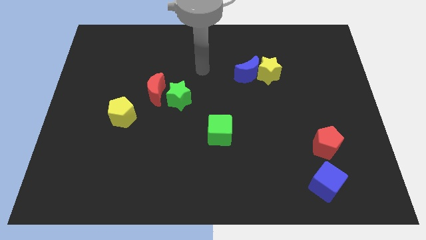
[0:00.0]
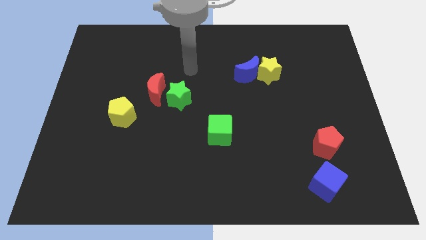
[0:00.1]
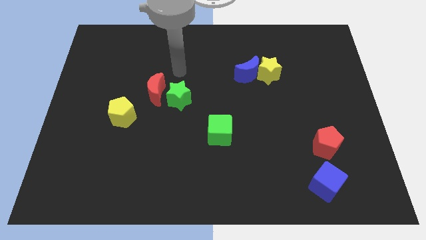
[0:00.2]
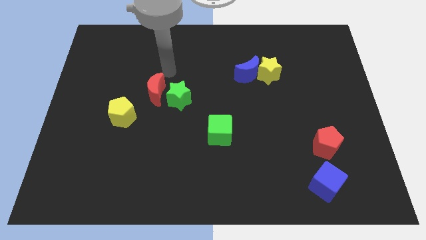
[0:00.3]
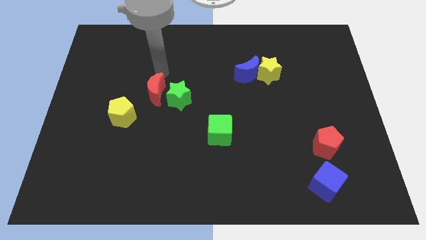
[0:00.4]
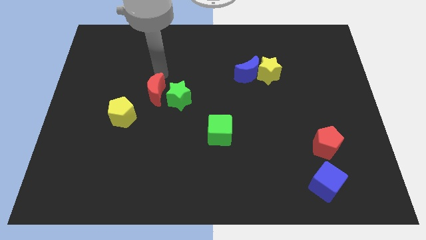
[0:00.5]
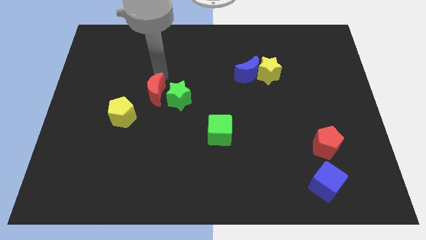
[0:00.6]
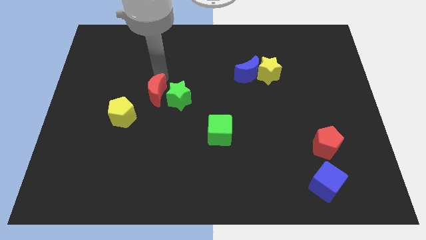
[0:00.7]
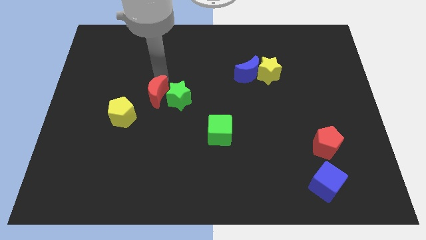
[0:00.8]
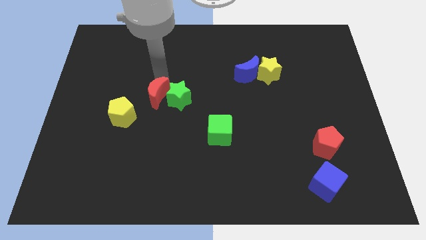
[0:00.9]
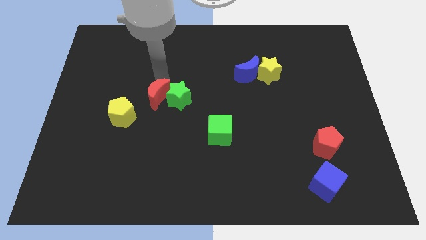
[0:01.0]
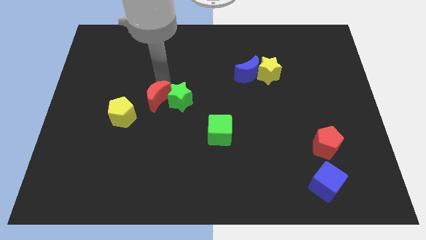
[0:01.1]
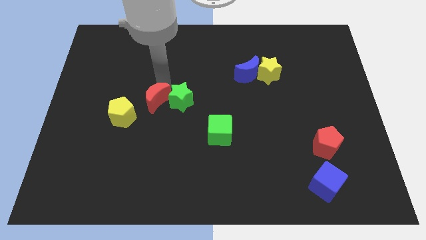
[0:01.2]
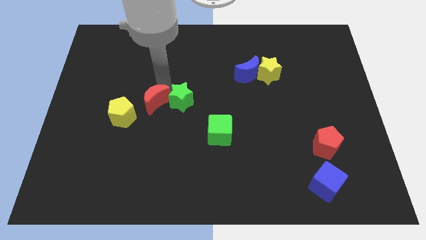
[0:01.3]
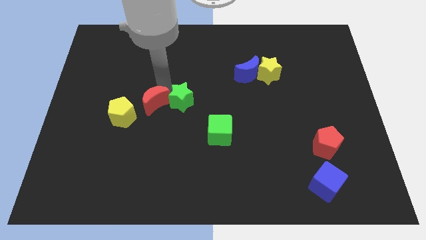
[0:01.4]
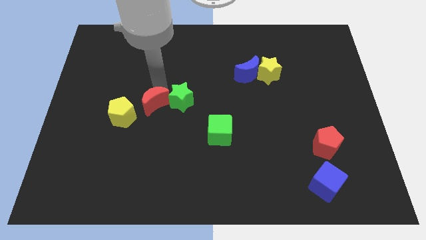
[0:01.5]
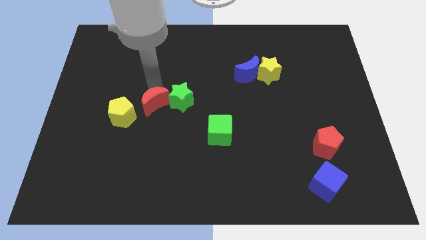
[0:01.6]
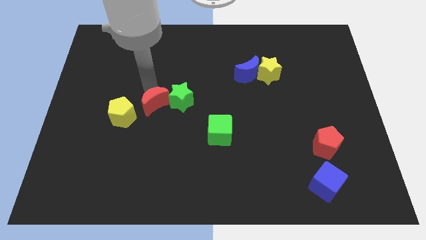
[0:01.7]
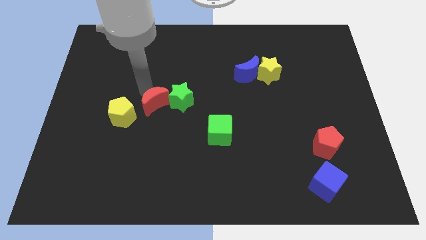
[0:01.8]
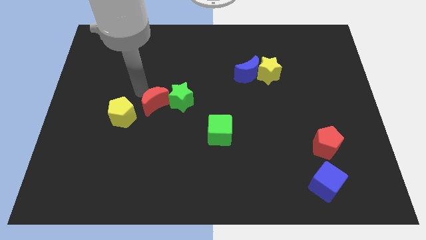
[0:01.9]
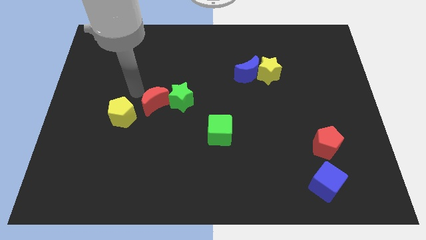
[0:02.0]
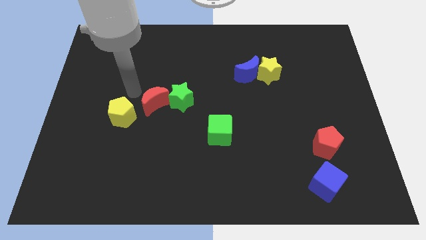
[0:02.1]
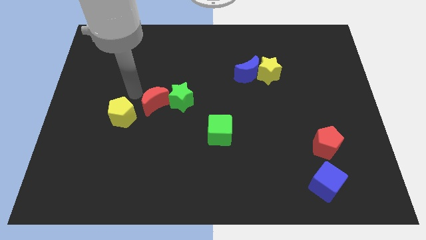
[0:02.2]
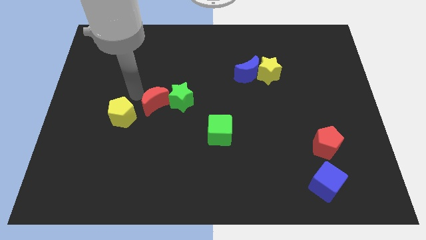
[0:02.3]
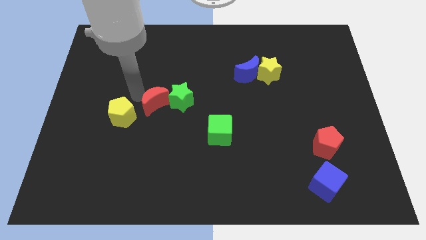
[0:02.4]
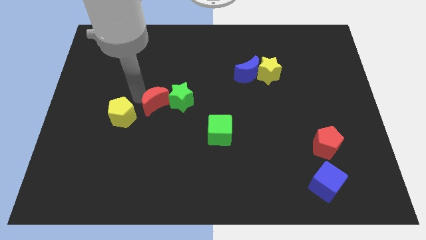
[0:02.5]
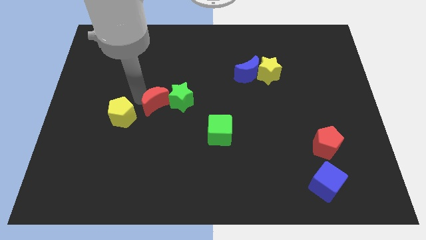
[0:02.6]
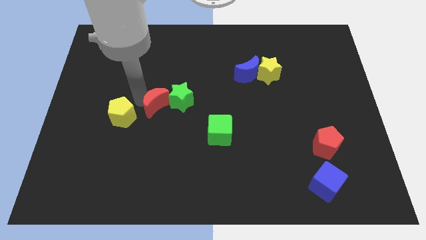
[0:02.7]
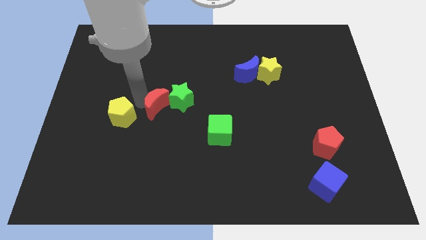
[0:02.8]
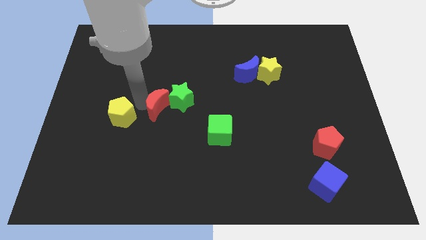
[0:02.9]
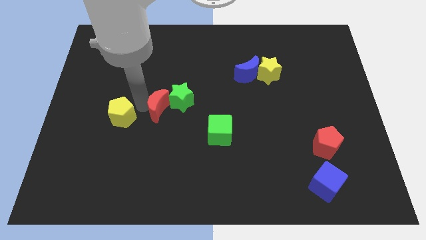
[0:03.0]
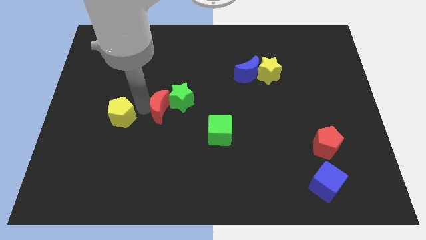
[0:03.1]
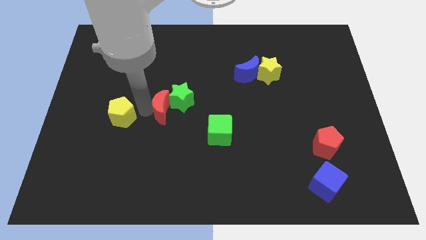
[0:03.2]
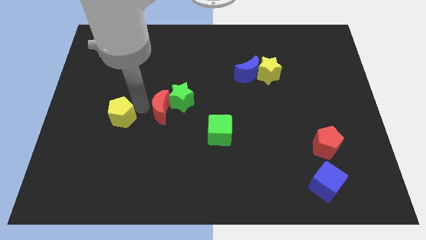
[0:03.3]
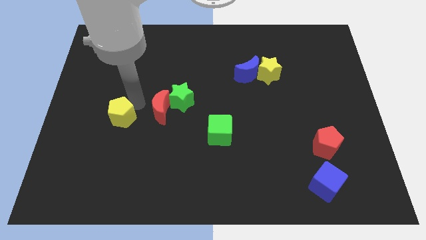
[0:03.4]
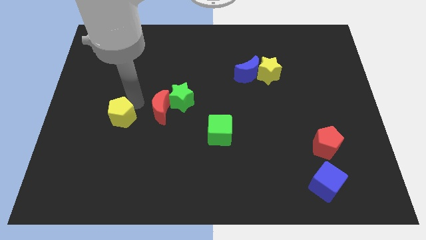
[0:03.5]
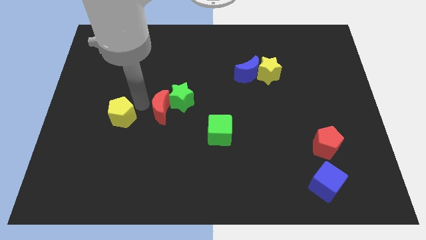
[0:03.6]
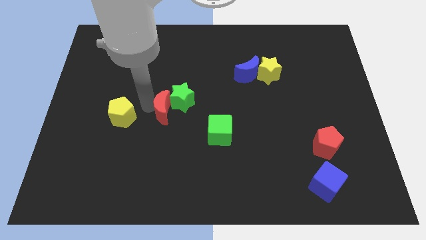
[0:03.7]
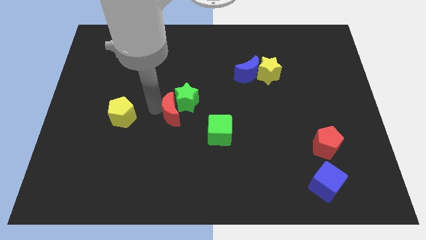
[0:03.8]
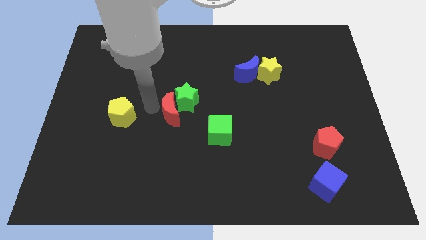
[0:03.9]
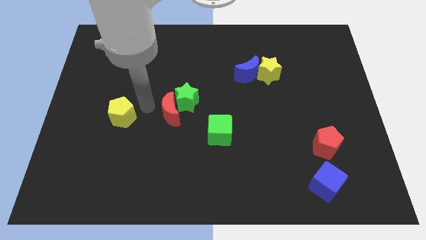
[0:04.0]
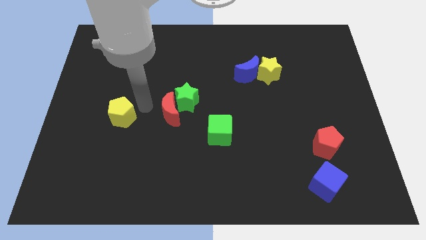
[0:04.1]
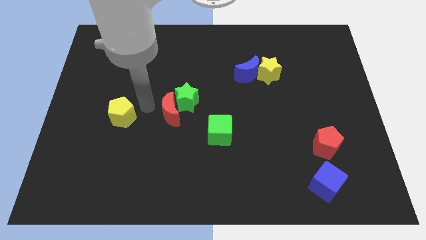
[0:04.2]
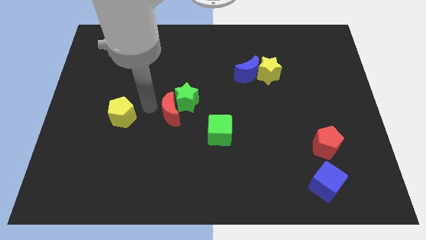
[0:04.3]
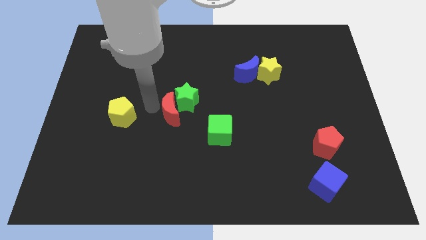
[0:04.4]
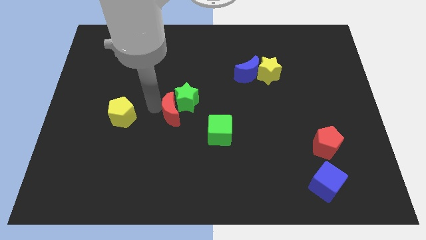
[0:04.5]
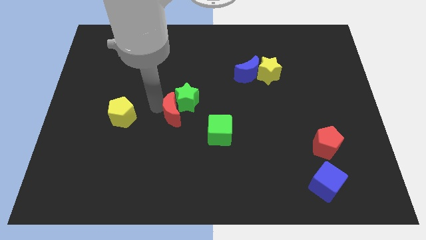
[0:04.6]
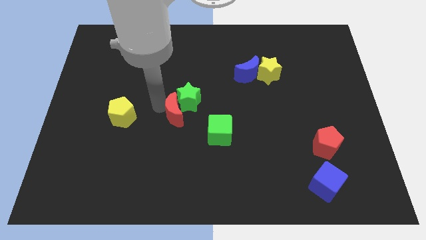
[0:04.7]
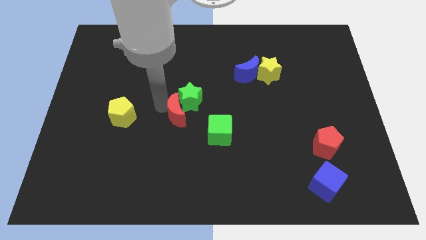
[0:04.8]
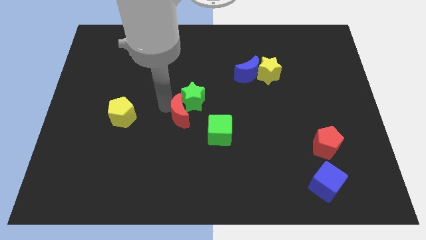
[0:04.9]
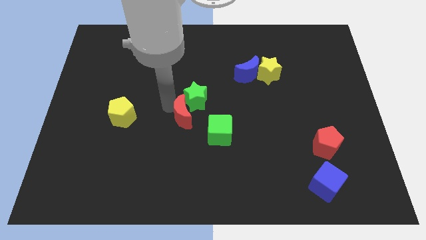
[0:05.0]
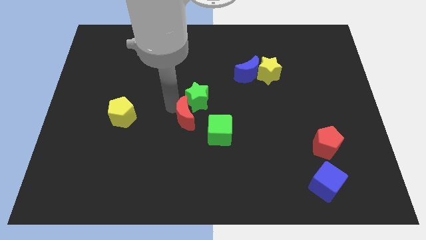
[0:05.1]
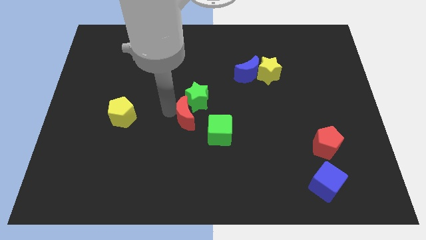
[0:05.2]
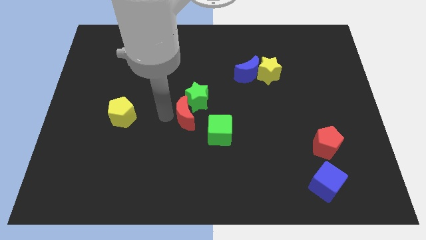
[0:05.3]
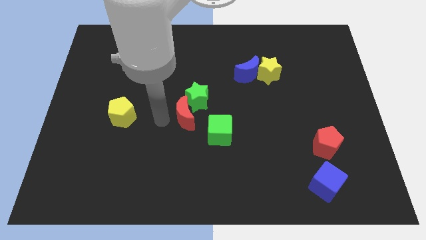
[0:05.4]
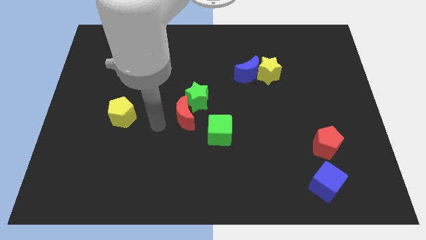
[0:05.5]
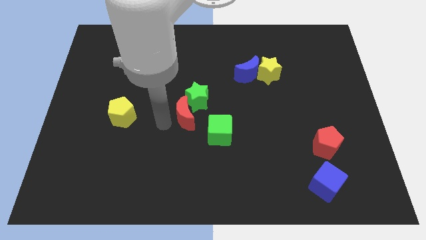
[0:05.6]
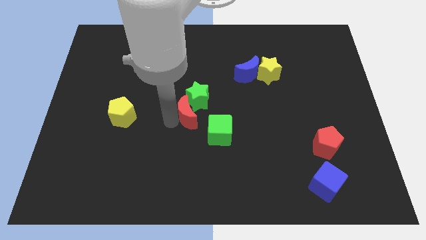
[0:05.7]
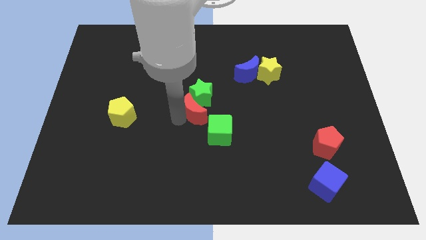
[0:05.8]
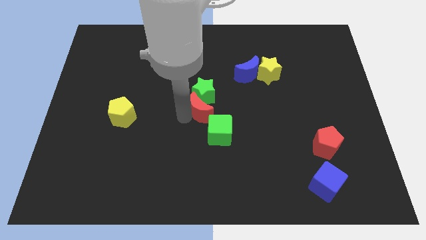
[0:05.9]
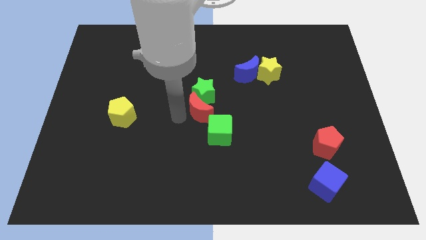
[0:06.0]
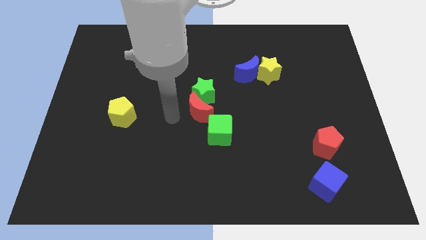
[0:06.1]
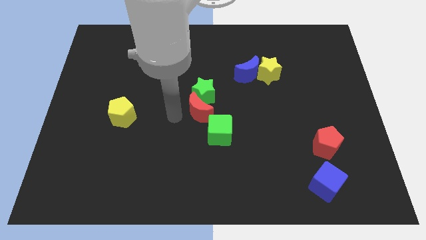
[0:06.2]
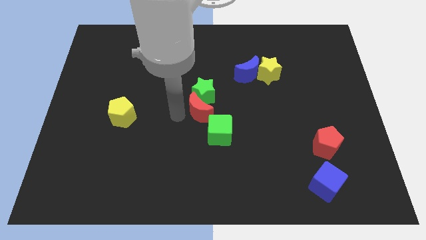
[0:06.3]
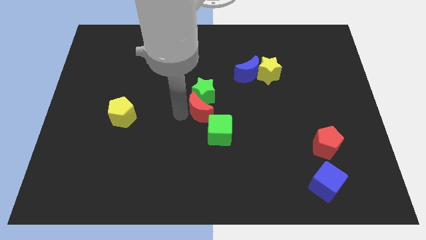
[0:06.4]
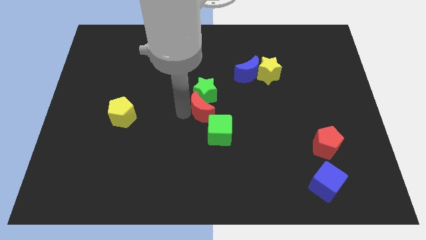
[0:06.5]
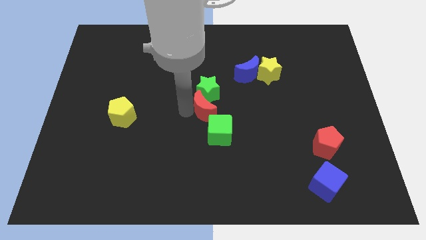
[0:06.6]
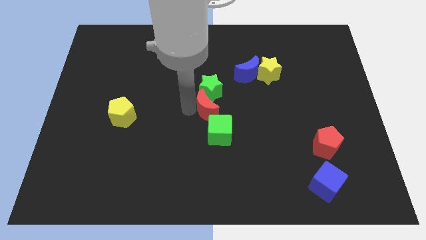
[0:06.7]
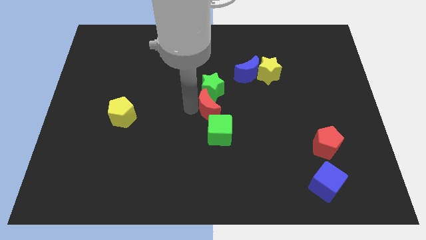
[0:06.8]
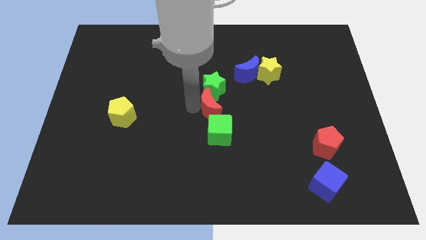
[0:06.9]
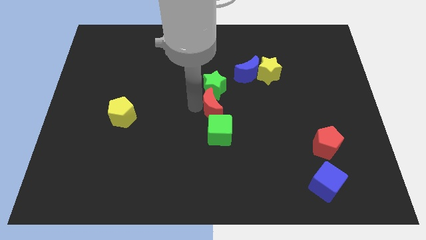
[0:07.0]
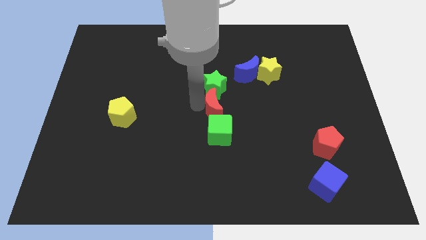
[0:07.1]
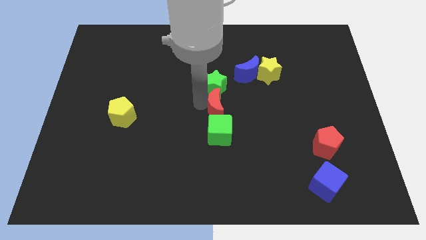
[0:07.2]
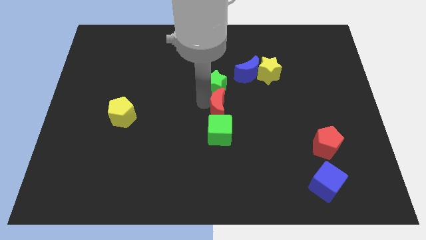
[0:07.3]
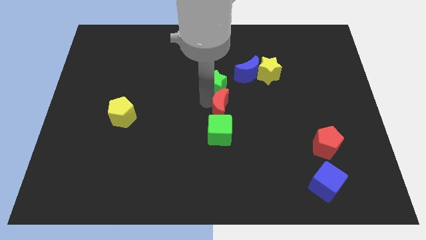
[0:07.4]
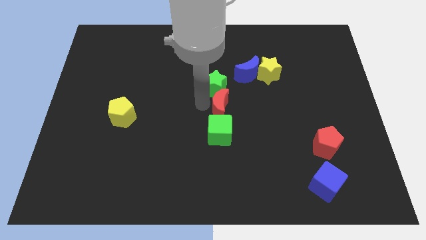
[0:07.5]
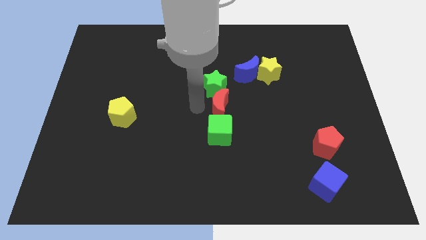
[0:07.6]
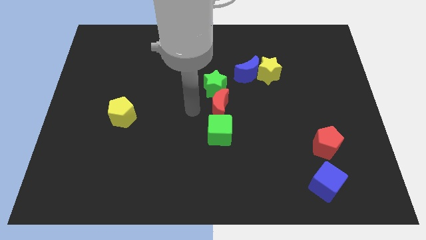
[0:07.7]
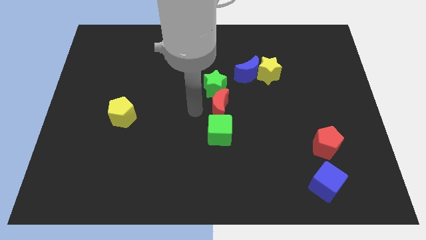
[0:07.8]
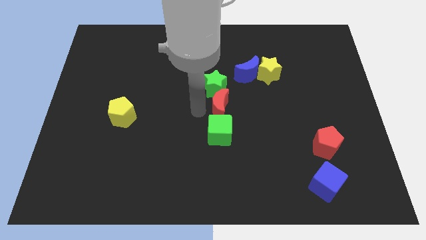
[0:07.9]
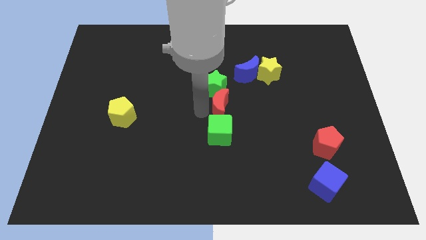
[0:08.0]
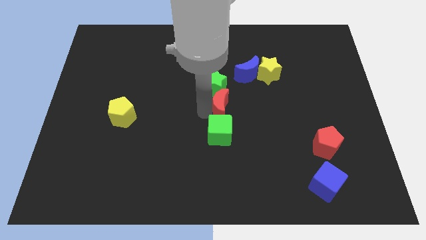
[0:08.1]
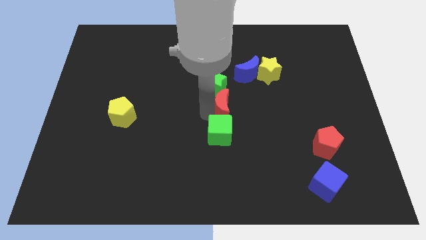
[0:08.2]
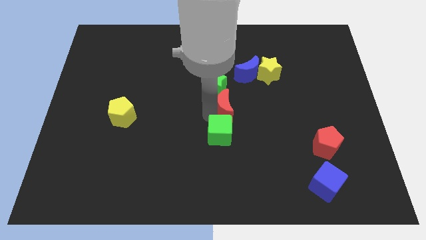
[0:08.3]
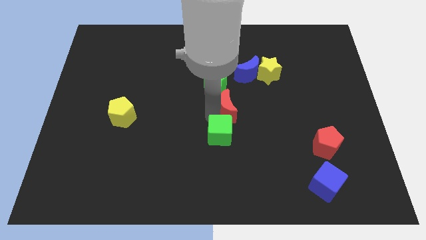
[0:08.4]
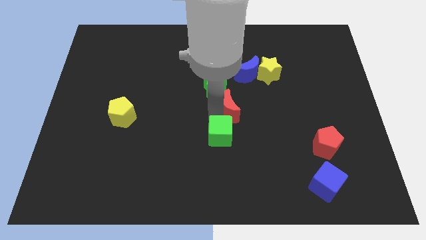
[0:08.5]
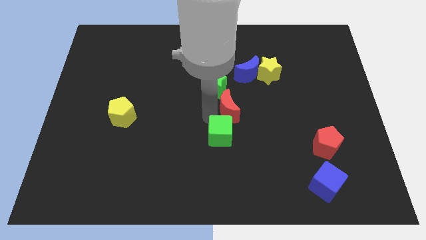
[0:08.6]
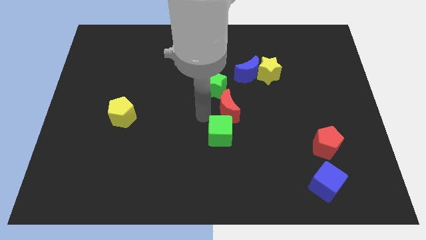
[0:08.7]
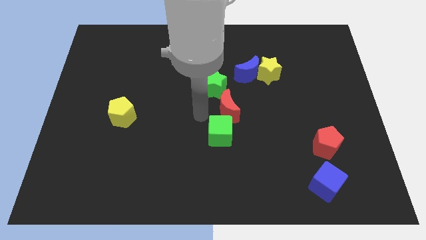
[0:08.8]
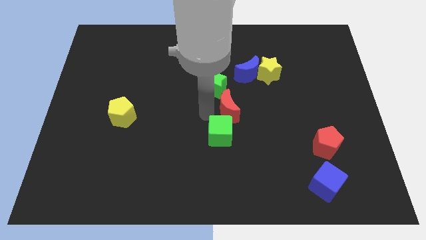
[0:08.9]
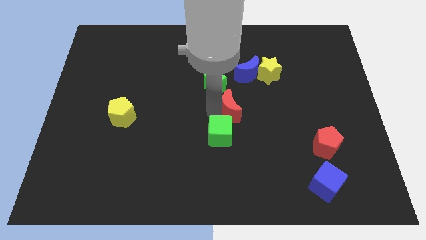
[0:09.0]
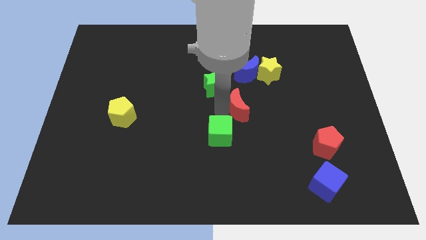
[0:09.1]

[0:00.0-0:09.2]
put the red moon to the bottom side of the blue moon
